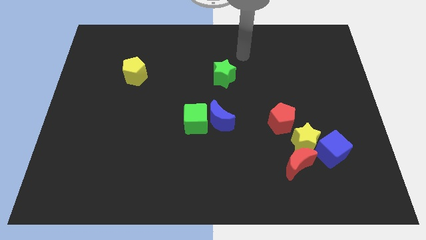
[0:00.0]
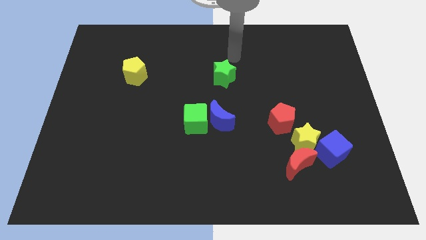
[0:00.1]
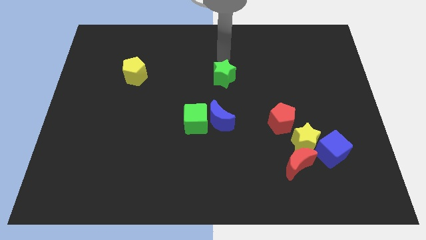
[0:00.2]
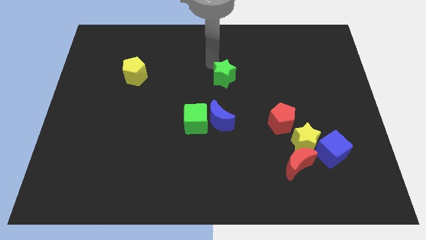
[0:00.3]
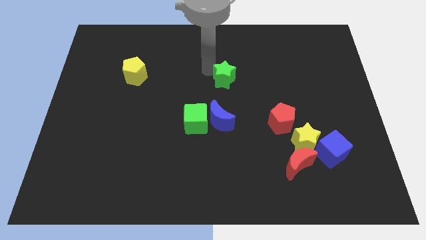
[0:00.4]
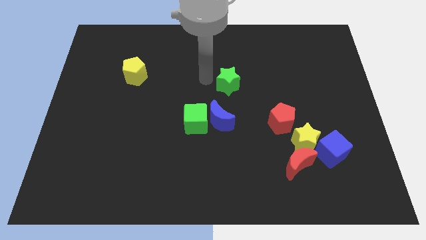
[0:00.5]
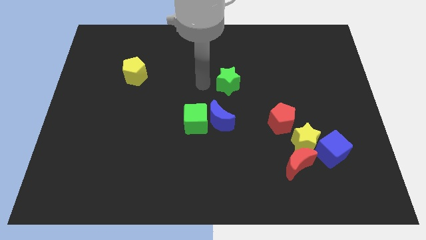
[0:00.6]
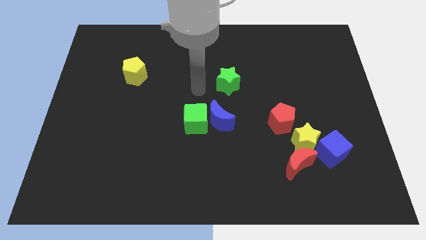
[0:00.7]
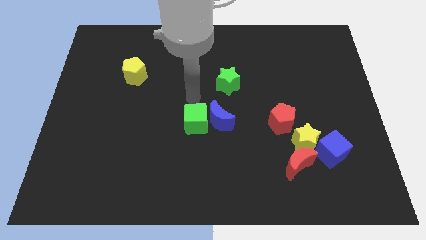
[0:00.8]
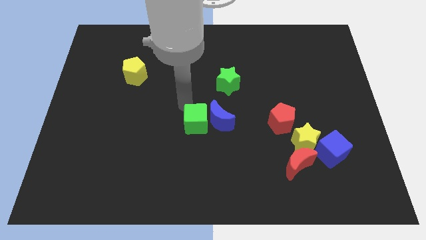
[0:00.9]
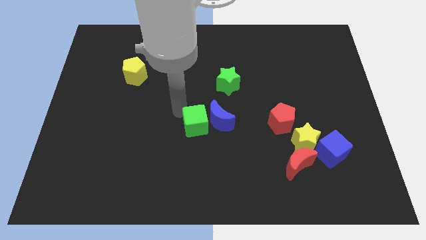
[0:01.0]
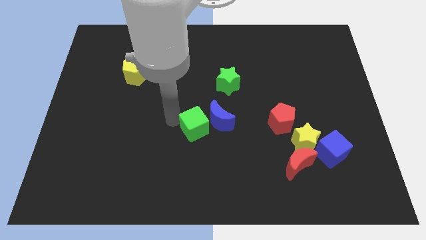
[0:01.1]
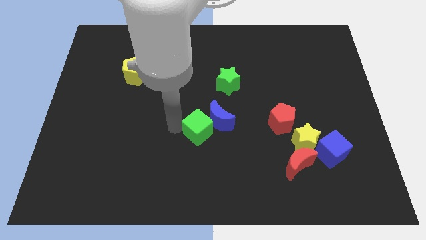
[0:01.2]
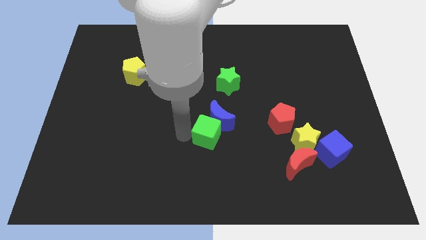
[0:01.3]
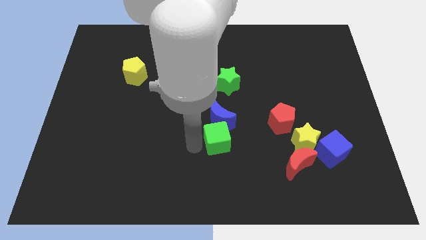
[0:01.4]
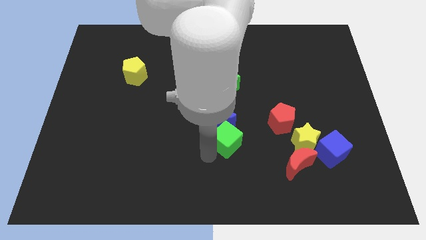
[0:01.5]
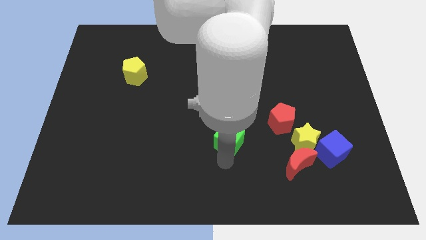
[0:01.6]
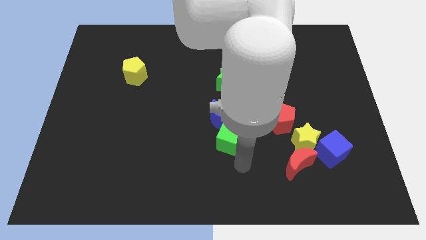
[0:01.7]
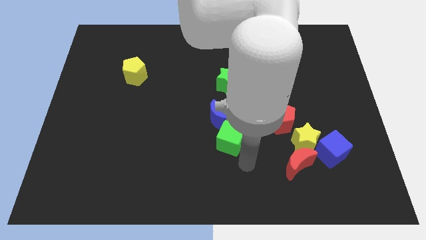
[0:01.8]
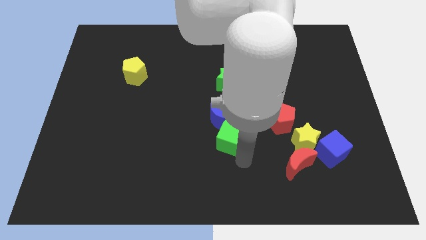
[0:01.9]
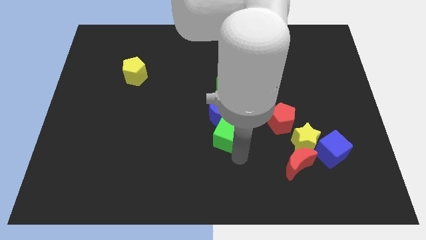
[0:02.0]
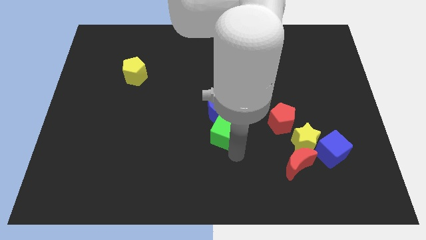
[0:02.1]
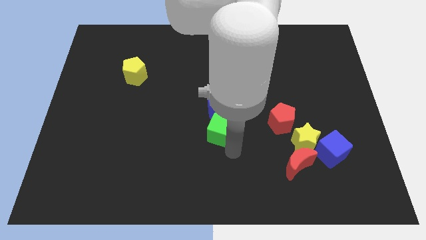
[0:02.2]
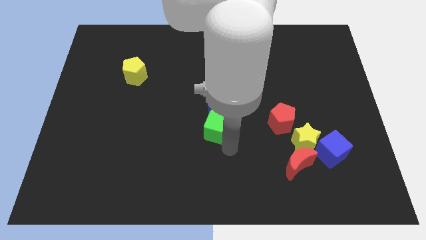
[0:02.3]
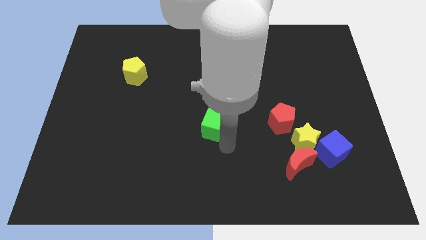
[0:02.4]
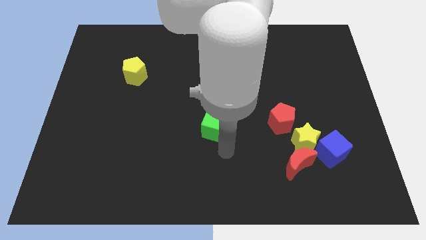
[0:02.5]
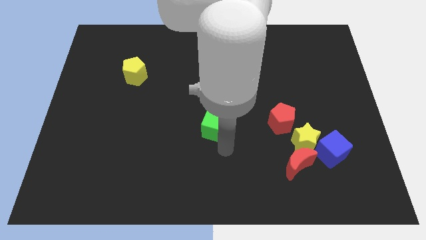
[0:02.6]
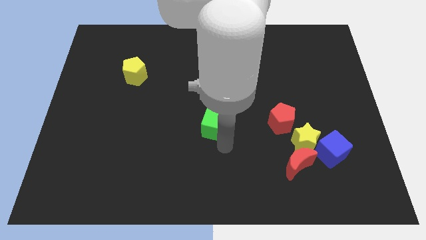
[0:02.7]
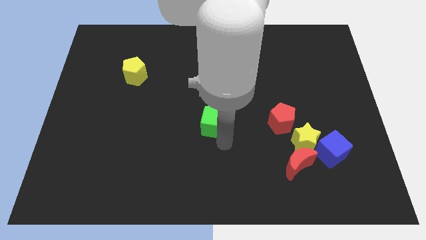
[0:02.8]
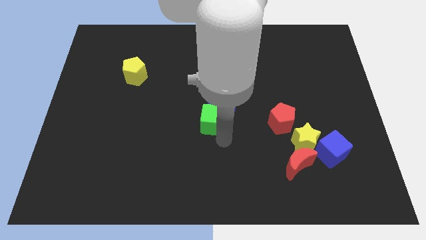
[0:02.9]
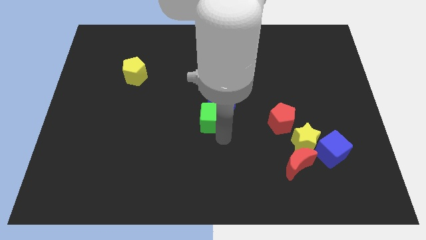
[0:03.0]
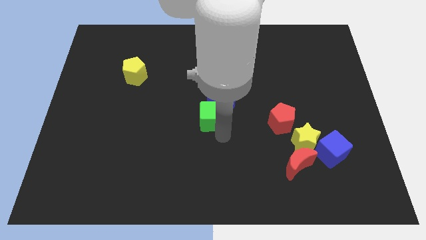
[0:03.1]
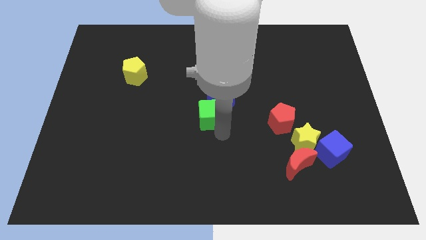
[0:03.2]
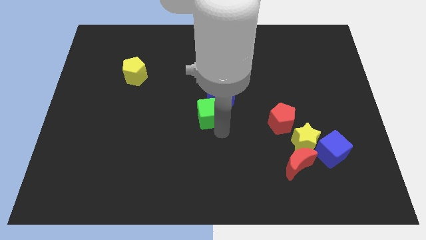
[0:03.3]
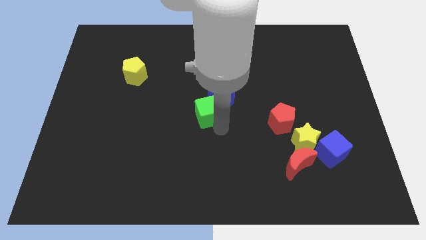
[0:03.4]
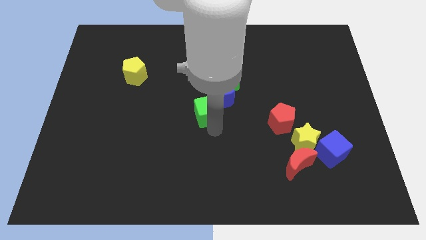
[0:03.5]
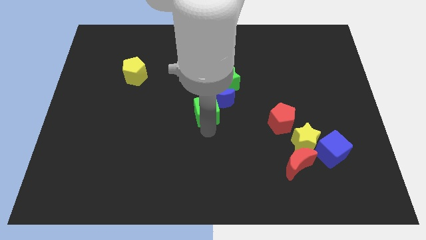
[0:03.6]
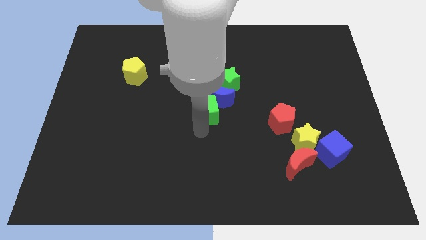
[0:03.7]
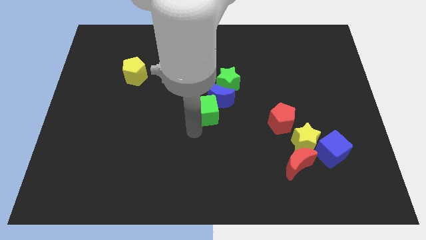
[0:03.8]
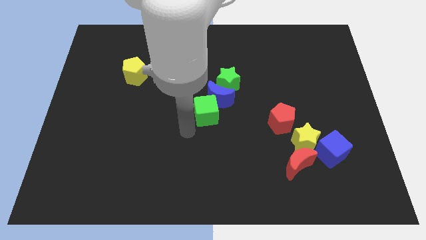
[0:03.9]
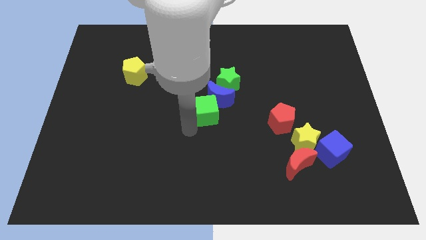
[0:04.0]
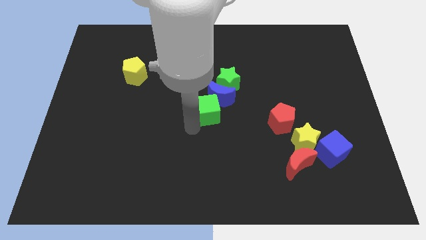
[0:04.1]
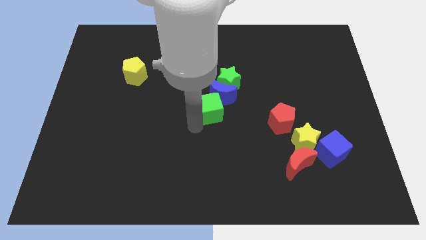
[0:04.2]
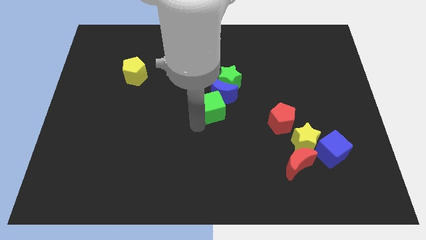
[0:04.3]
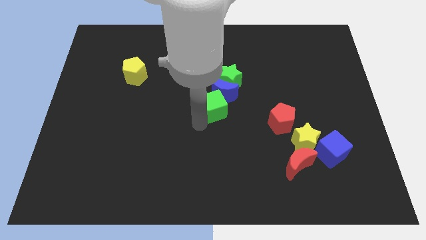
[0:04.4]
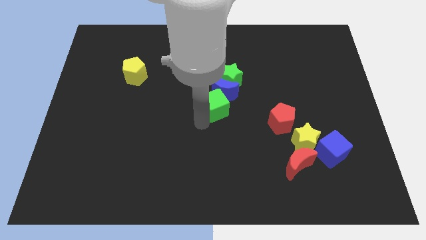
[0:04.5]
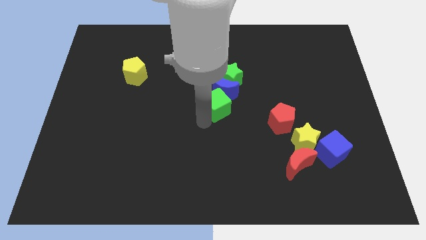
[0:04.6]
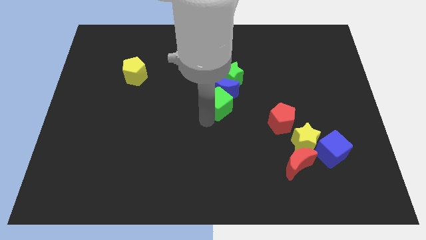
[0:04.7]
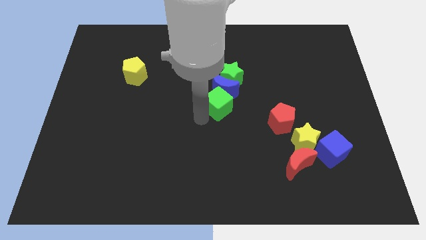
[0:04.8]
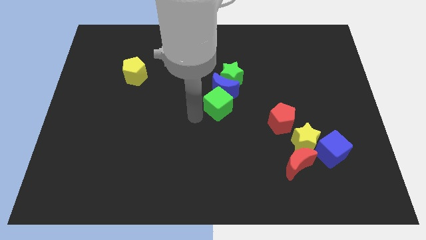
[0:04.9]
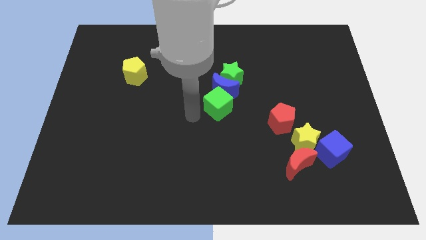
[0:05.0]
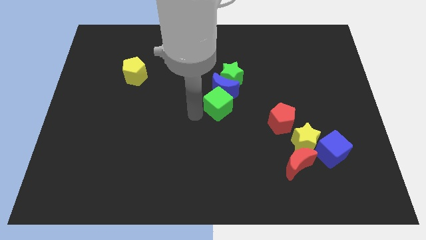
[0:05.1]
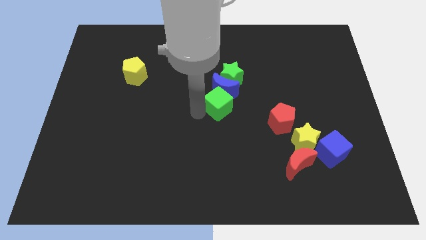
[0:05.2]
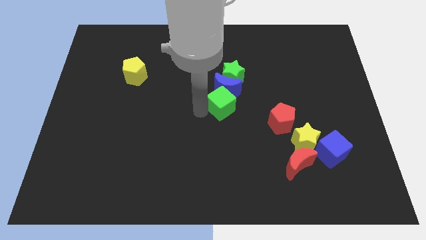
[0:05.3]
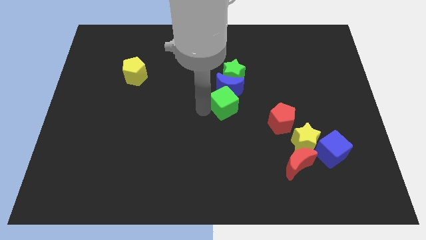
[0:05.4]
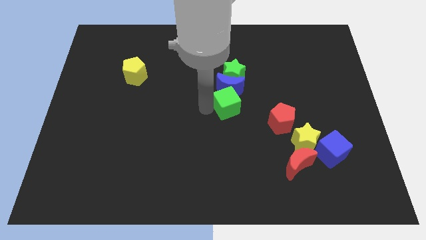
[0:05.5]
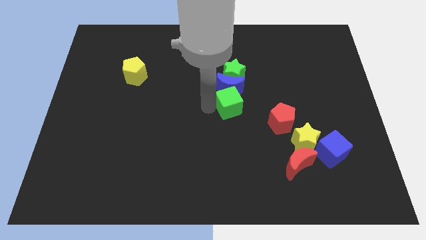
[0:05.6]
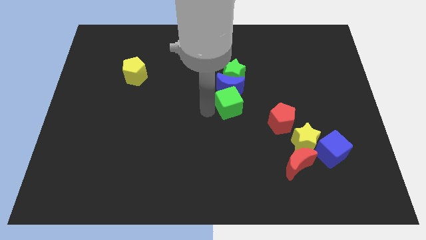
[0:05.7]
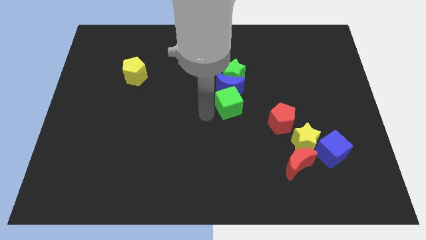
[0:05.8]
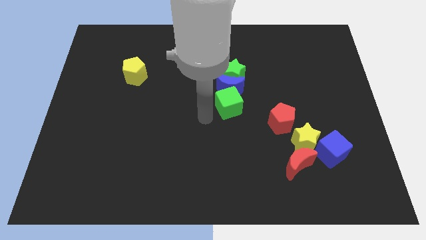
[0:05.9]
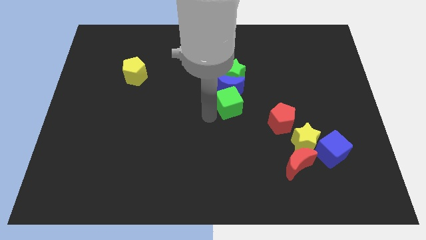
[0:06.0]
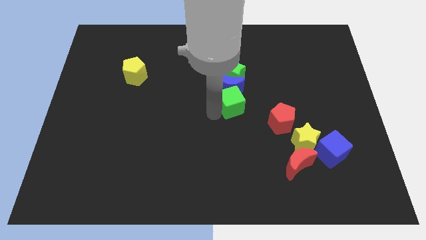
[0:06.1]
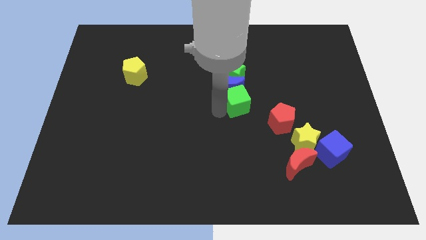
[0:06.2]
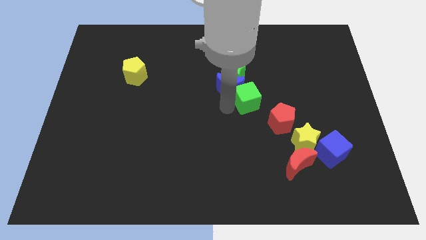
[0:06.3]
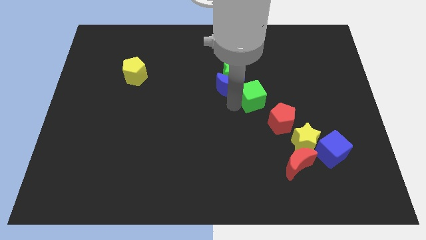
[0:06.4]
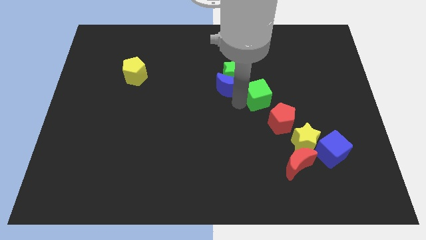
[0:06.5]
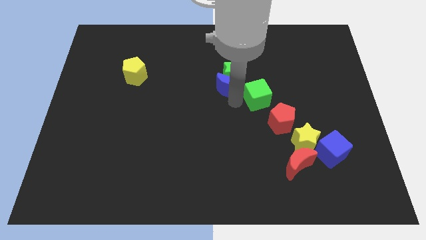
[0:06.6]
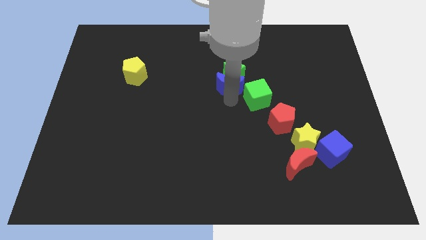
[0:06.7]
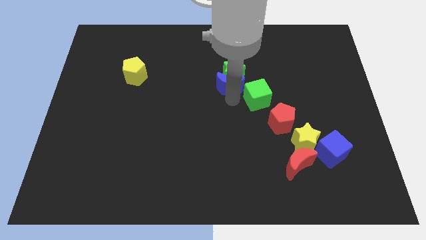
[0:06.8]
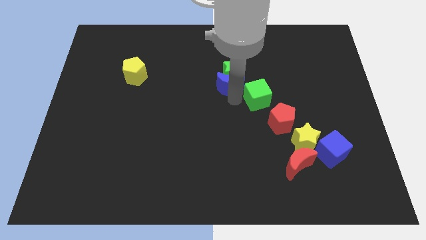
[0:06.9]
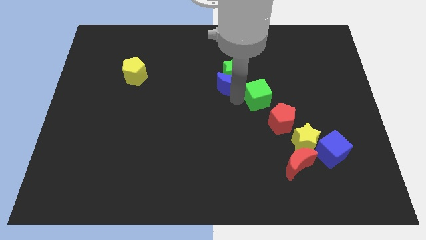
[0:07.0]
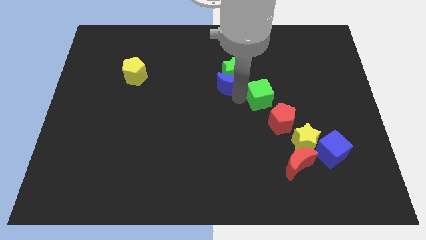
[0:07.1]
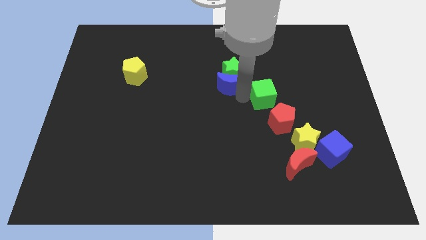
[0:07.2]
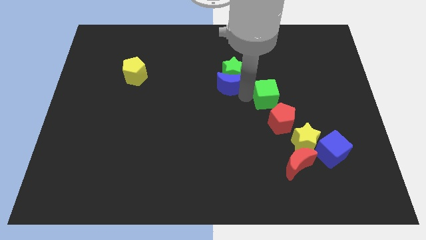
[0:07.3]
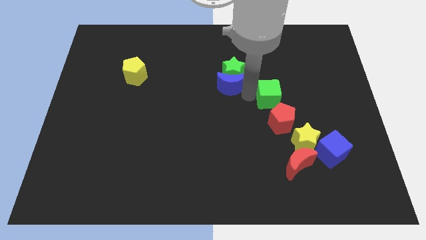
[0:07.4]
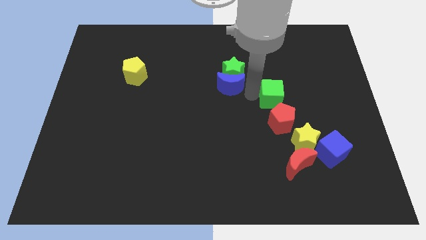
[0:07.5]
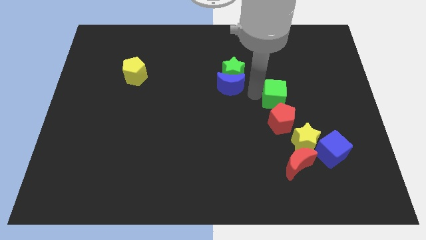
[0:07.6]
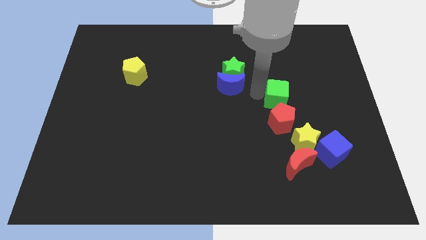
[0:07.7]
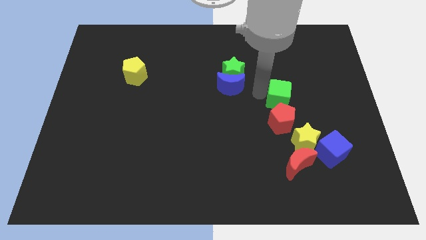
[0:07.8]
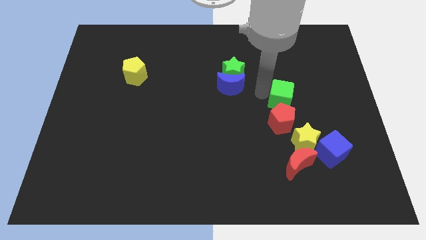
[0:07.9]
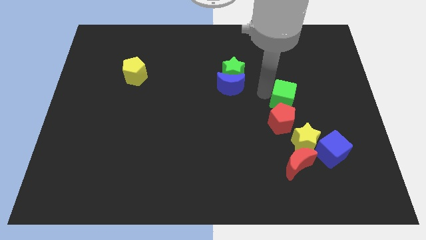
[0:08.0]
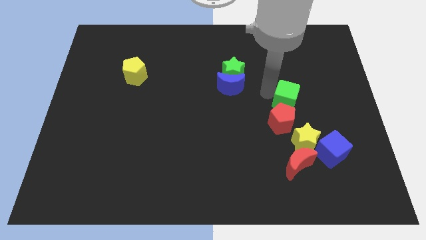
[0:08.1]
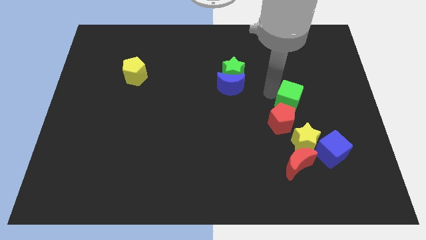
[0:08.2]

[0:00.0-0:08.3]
move the green cube to the right
